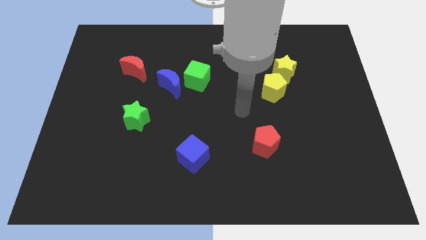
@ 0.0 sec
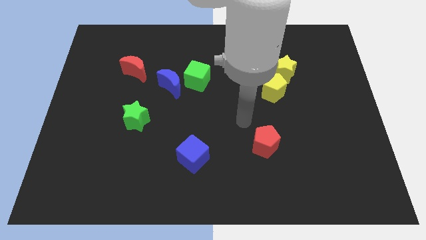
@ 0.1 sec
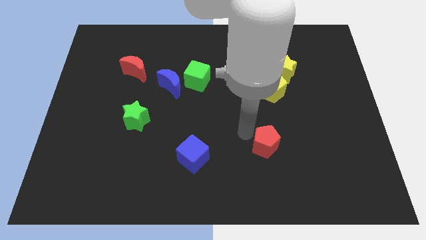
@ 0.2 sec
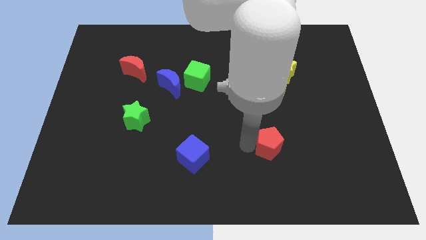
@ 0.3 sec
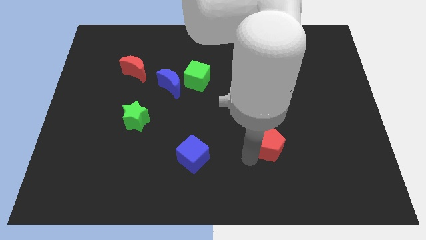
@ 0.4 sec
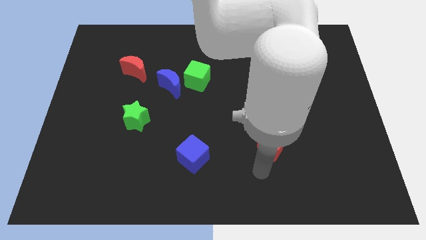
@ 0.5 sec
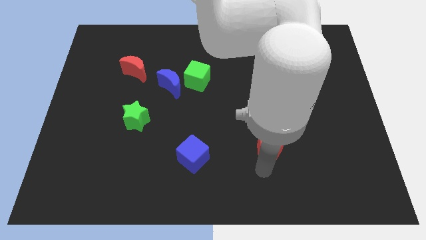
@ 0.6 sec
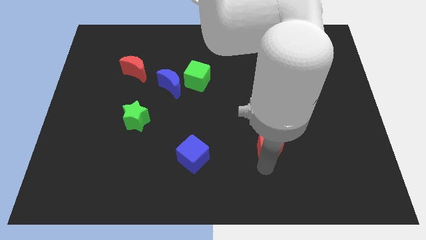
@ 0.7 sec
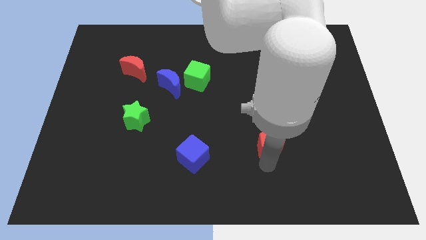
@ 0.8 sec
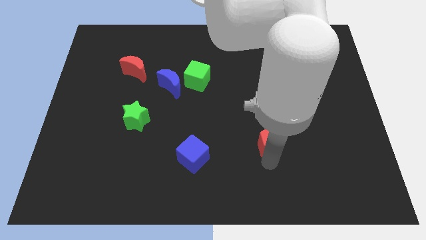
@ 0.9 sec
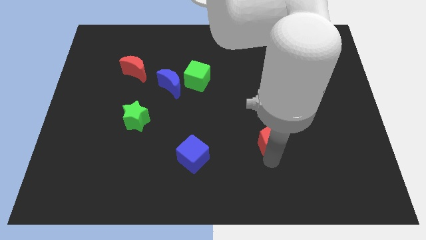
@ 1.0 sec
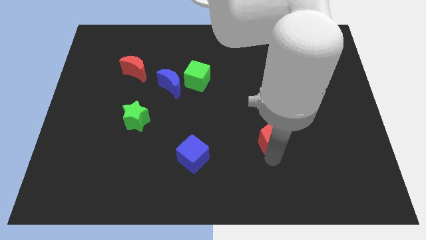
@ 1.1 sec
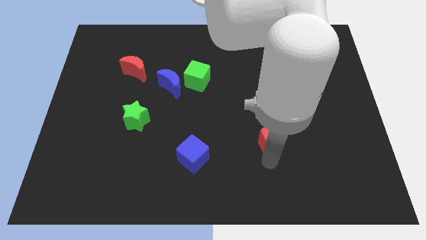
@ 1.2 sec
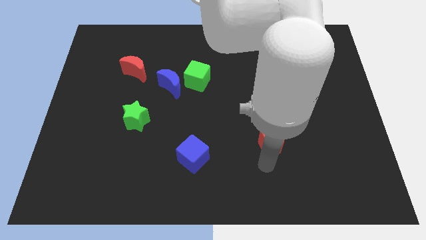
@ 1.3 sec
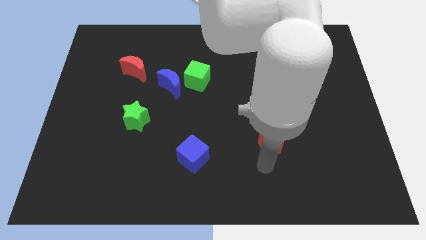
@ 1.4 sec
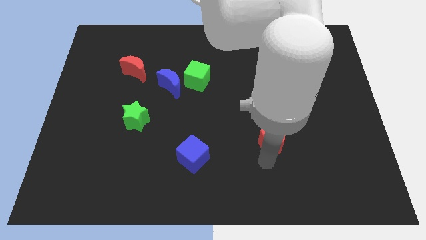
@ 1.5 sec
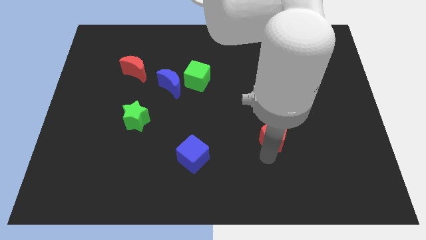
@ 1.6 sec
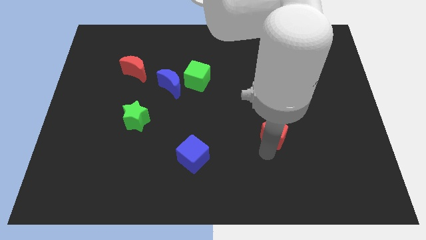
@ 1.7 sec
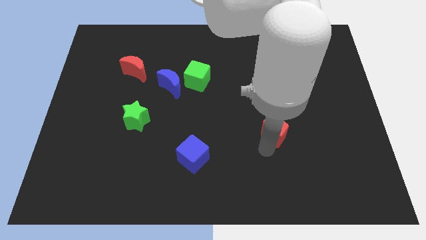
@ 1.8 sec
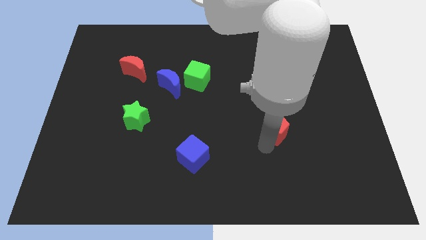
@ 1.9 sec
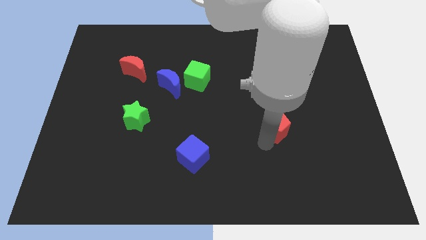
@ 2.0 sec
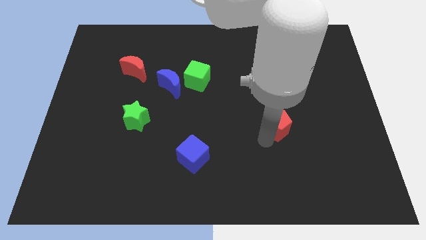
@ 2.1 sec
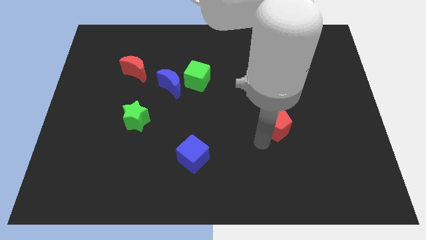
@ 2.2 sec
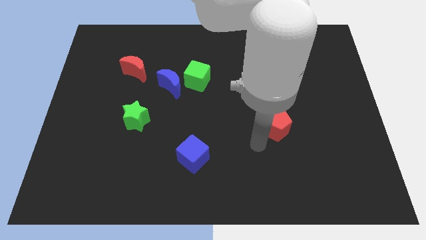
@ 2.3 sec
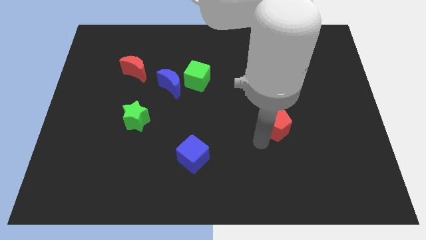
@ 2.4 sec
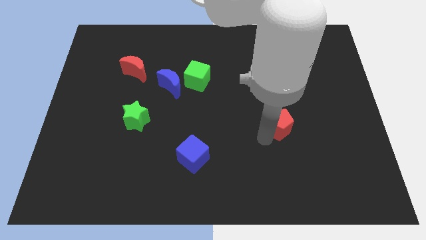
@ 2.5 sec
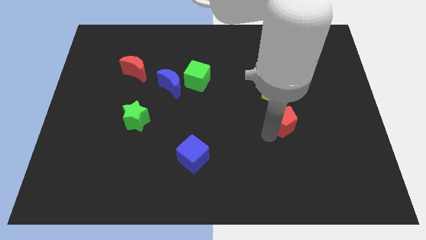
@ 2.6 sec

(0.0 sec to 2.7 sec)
slightly slide the red pentagon up and then right

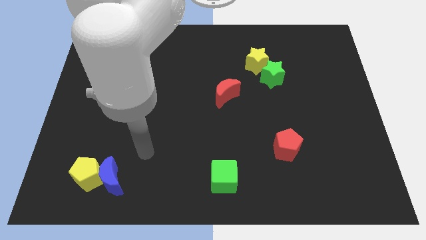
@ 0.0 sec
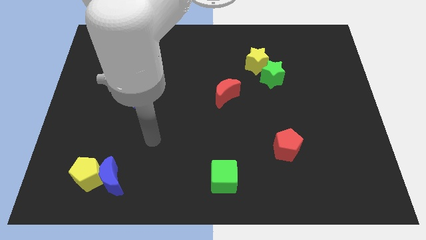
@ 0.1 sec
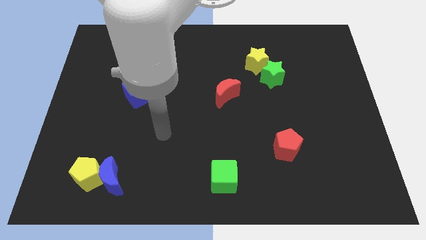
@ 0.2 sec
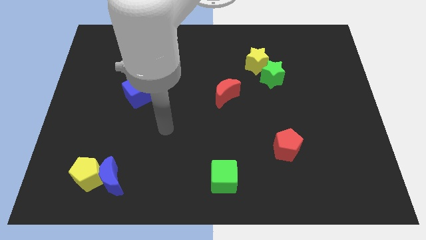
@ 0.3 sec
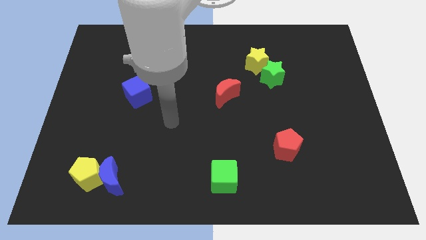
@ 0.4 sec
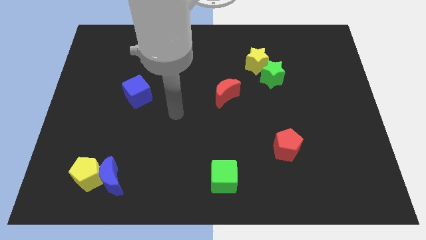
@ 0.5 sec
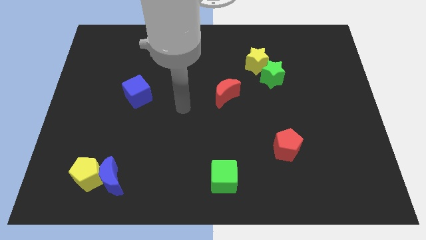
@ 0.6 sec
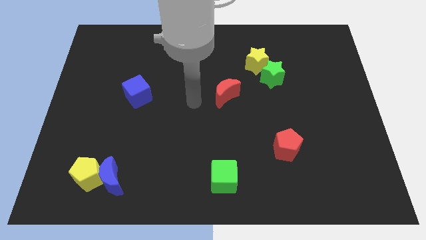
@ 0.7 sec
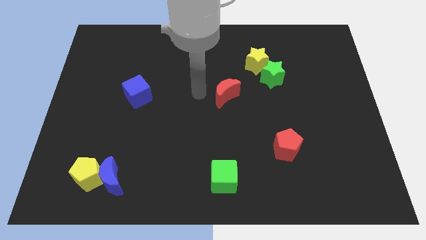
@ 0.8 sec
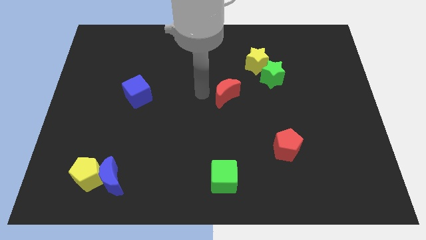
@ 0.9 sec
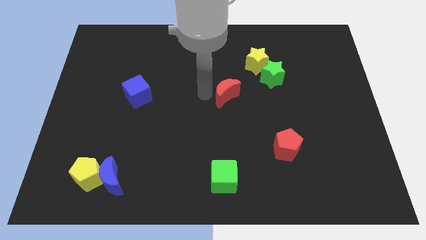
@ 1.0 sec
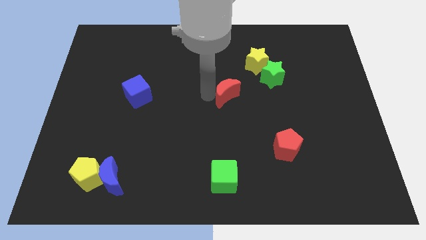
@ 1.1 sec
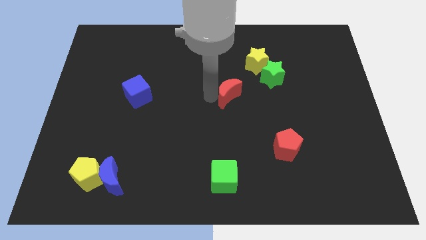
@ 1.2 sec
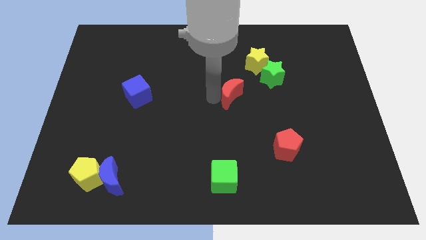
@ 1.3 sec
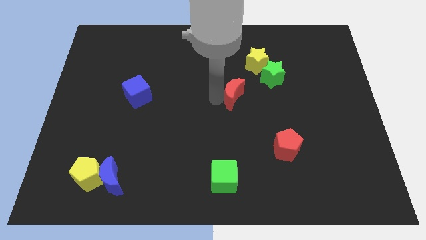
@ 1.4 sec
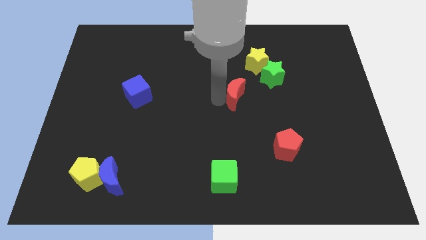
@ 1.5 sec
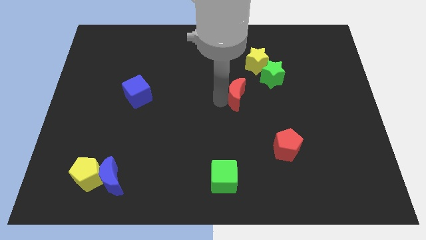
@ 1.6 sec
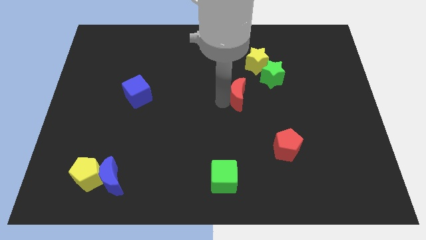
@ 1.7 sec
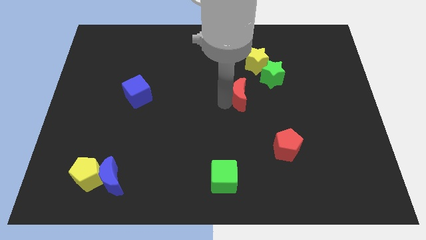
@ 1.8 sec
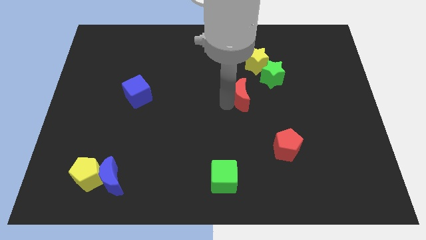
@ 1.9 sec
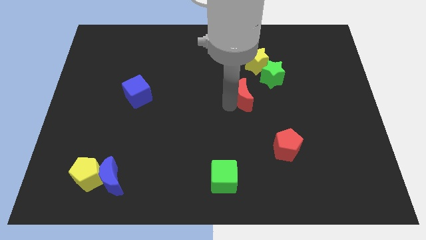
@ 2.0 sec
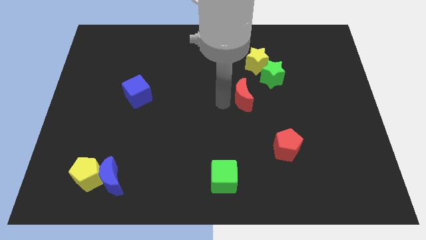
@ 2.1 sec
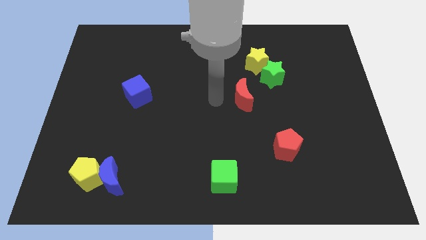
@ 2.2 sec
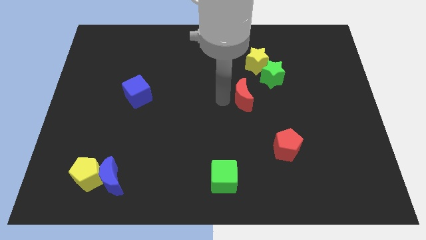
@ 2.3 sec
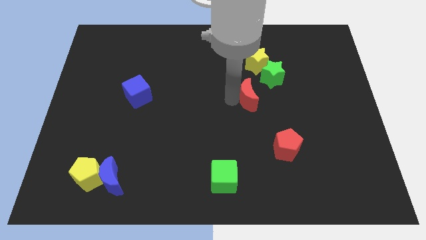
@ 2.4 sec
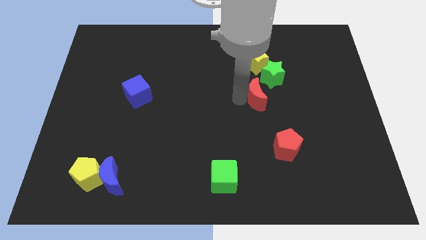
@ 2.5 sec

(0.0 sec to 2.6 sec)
slightly move the red moon to the right

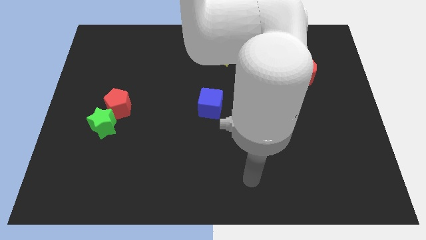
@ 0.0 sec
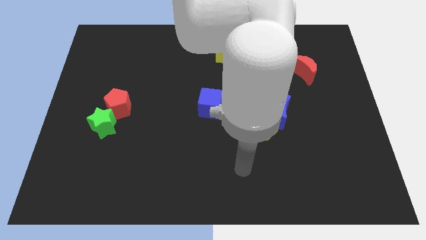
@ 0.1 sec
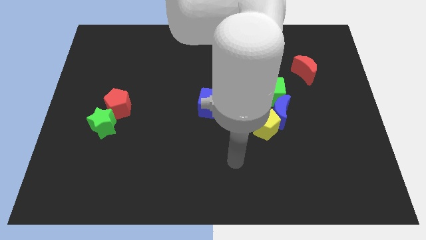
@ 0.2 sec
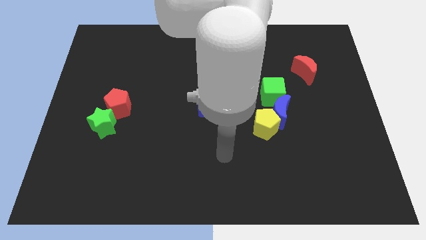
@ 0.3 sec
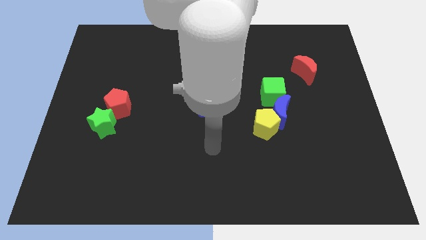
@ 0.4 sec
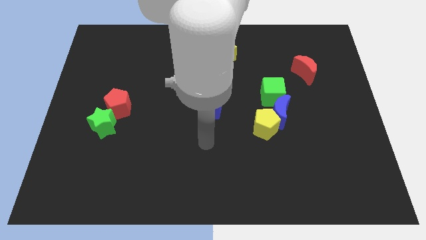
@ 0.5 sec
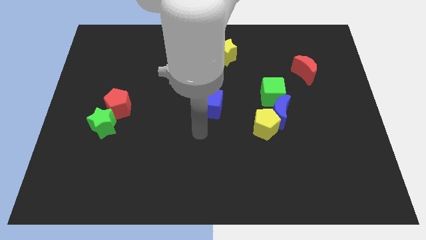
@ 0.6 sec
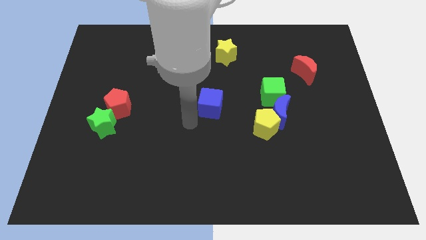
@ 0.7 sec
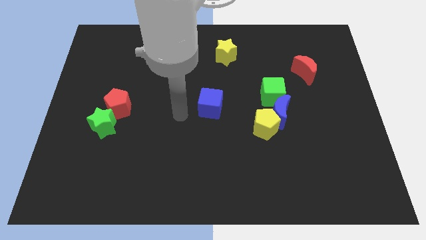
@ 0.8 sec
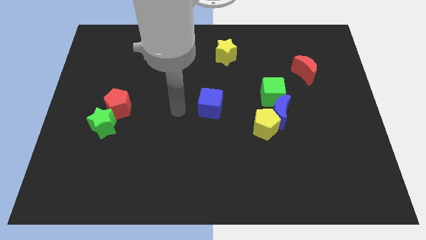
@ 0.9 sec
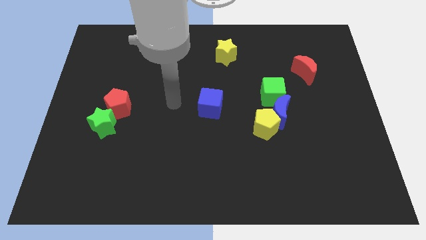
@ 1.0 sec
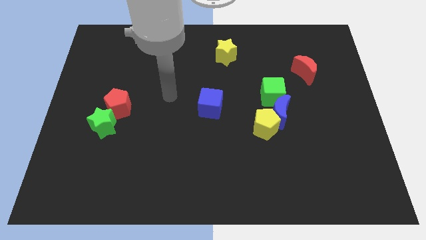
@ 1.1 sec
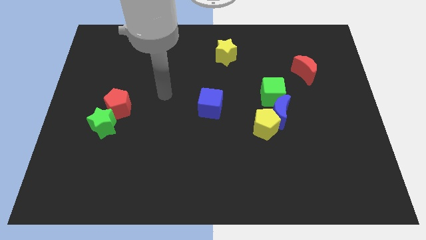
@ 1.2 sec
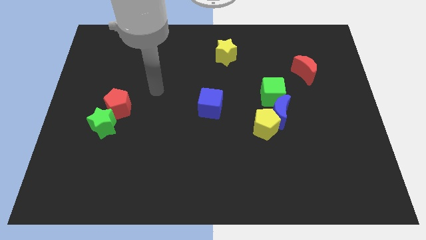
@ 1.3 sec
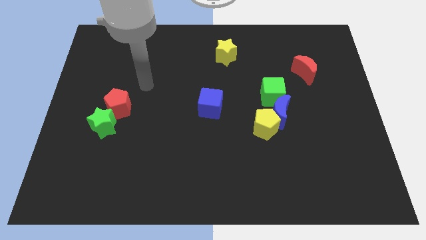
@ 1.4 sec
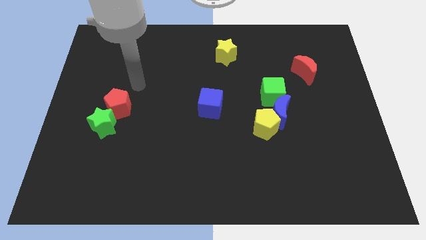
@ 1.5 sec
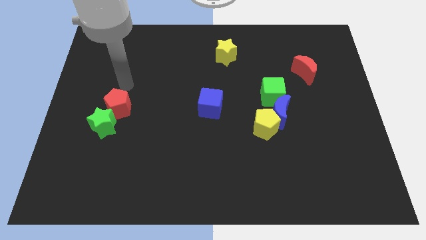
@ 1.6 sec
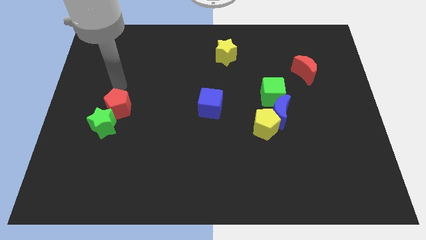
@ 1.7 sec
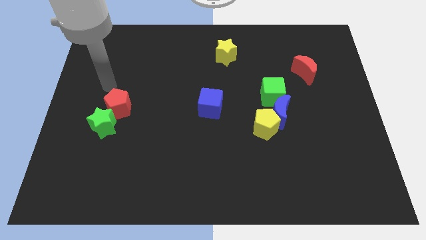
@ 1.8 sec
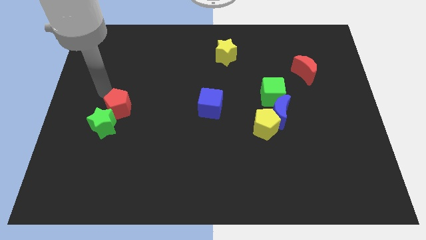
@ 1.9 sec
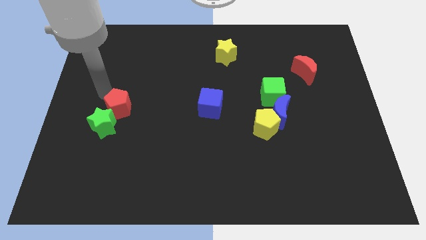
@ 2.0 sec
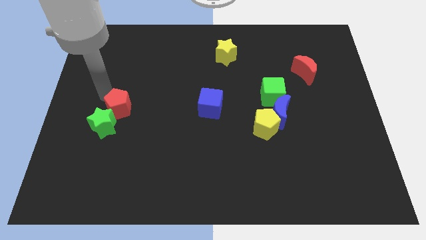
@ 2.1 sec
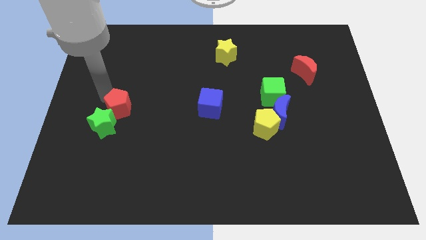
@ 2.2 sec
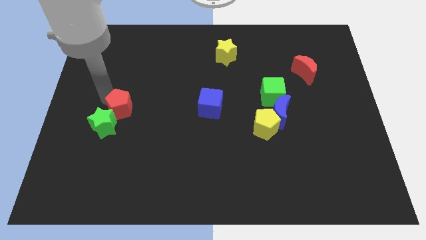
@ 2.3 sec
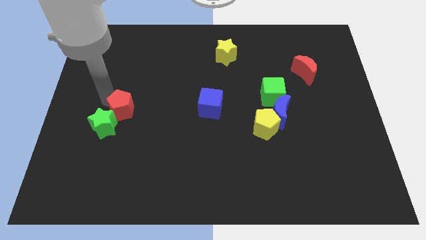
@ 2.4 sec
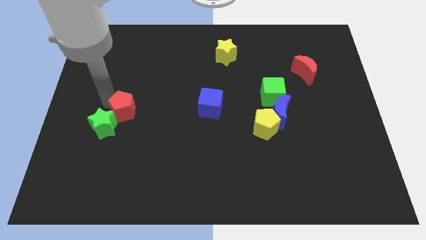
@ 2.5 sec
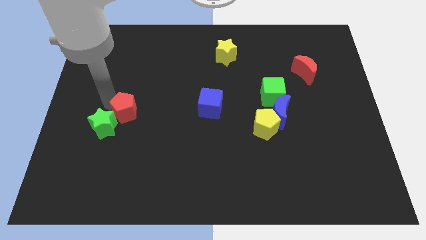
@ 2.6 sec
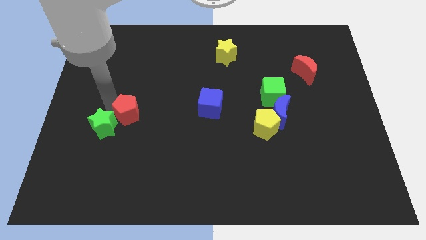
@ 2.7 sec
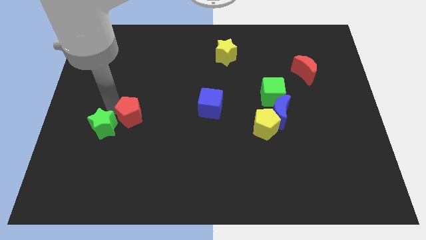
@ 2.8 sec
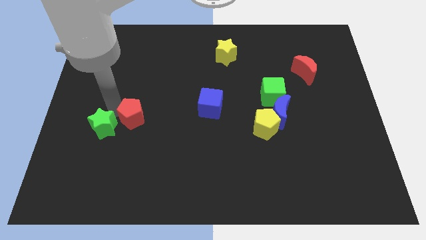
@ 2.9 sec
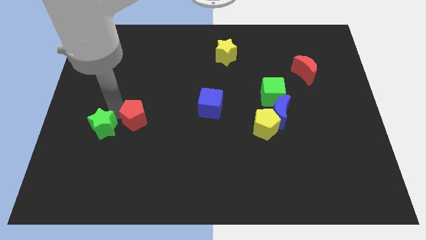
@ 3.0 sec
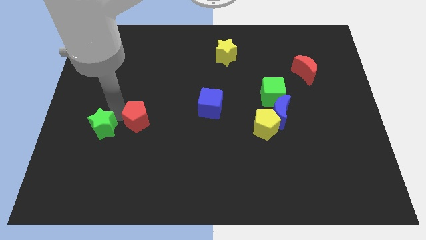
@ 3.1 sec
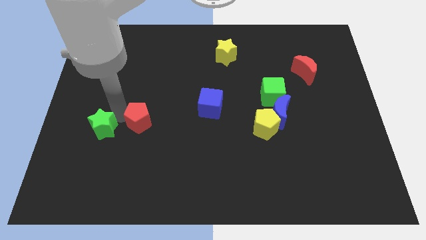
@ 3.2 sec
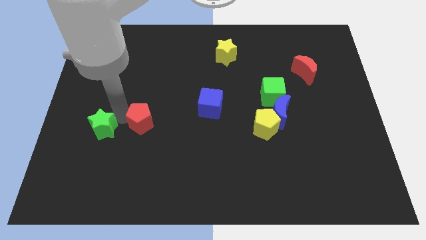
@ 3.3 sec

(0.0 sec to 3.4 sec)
slightly move the red pentagon diagonally downwards and right
